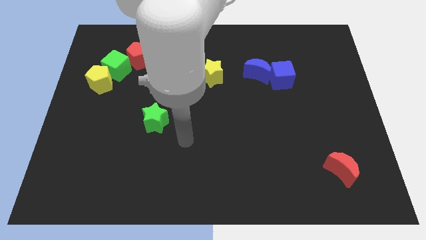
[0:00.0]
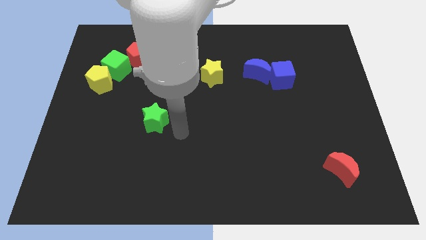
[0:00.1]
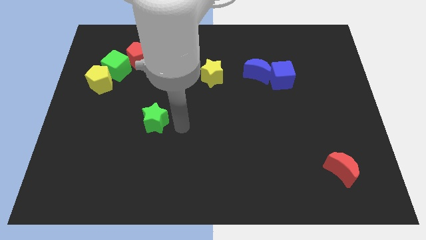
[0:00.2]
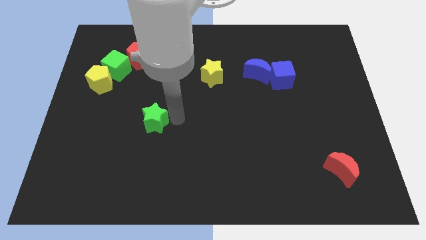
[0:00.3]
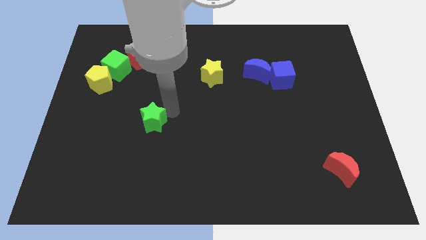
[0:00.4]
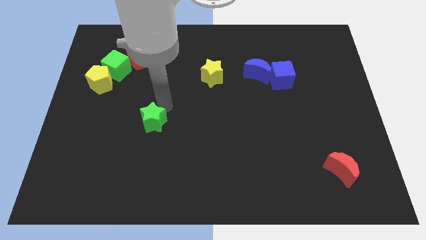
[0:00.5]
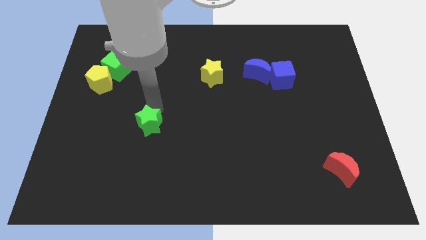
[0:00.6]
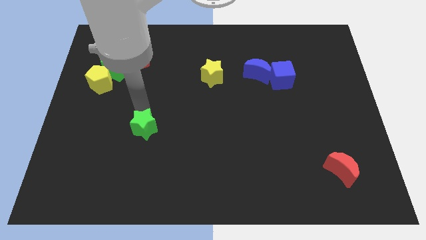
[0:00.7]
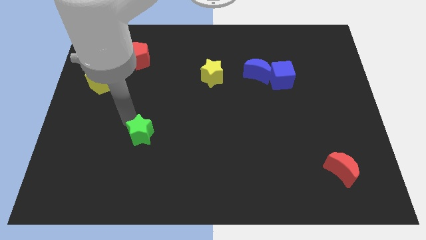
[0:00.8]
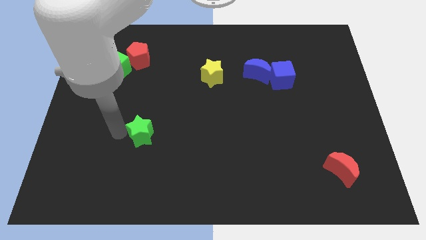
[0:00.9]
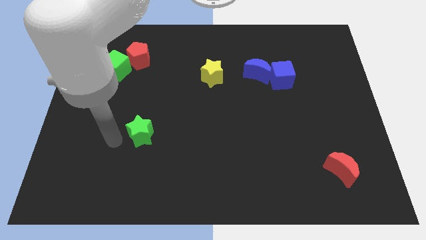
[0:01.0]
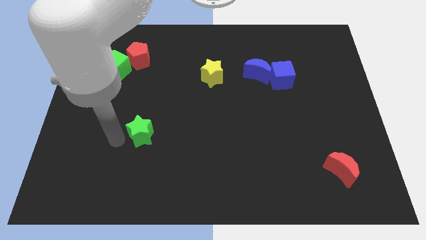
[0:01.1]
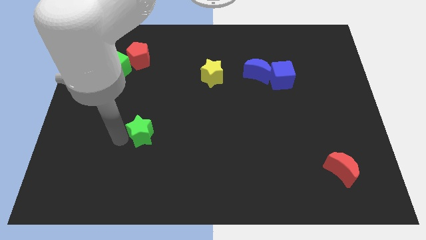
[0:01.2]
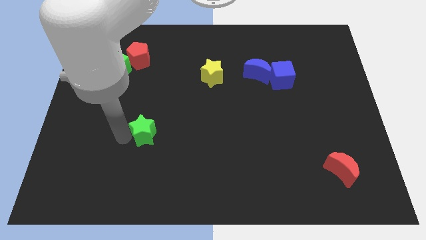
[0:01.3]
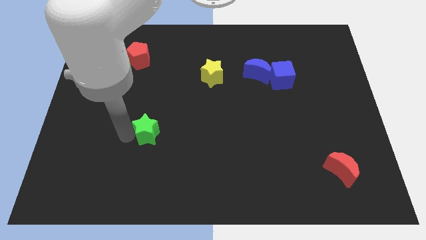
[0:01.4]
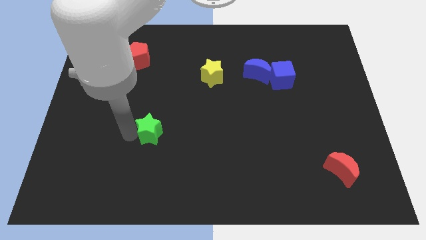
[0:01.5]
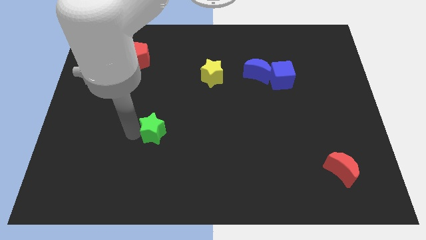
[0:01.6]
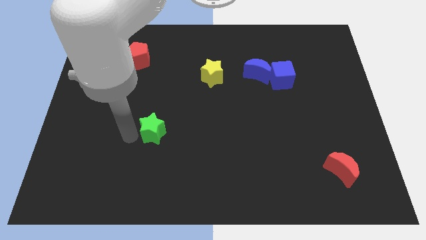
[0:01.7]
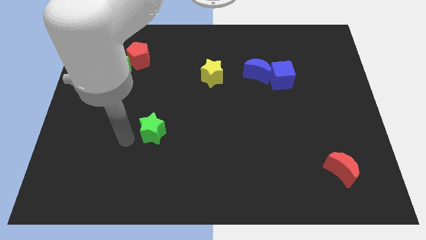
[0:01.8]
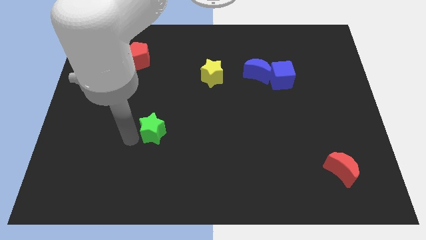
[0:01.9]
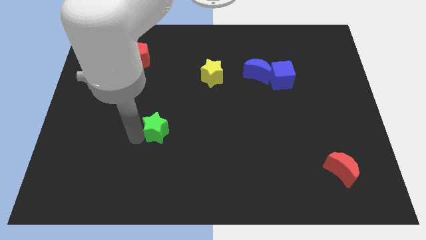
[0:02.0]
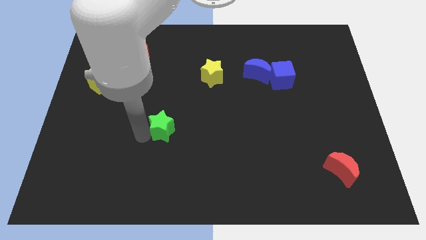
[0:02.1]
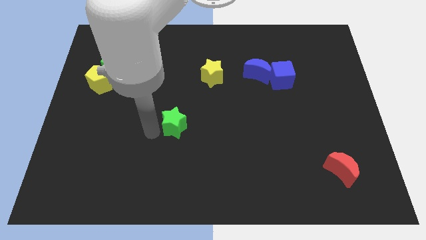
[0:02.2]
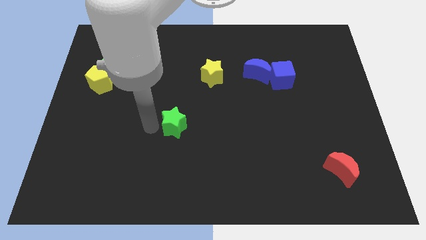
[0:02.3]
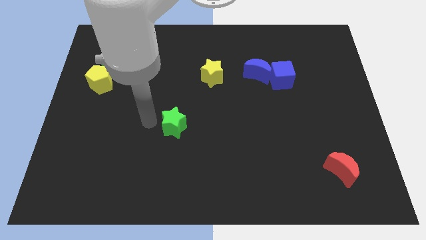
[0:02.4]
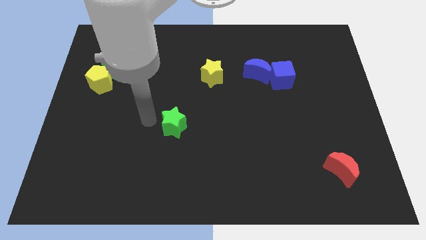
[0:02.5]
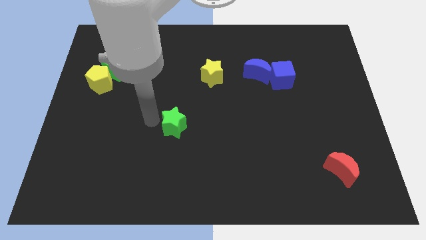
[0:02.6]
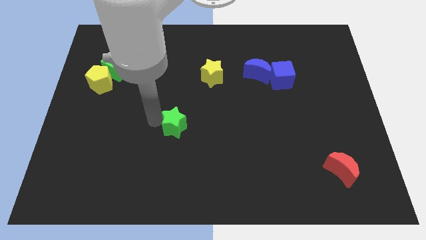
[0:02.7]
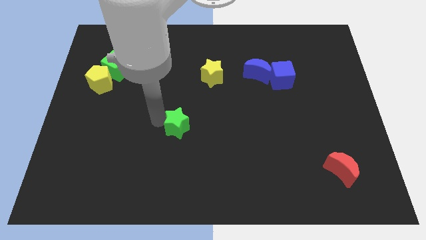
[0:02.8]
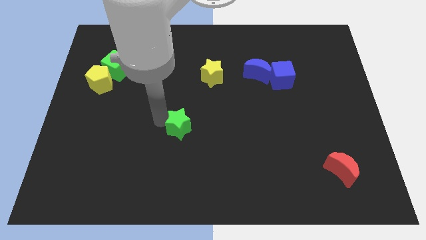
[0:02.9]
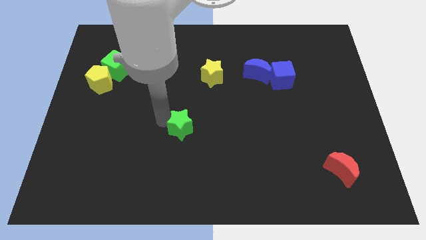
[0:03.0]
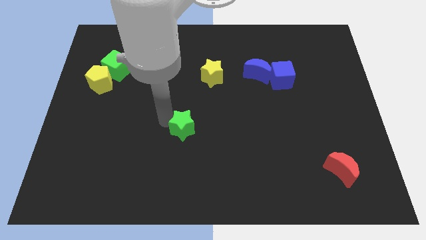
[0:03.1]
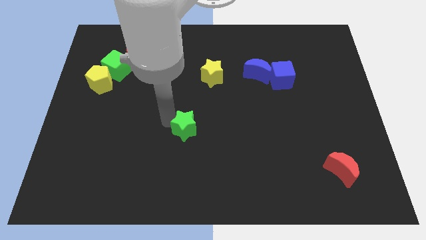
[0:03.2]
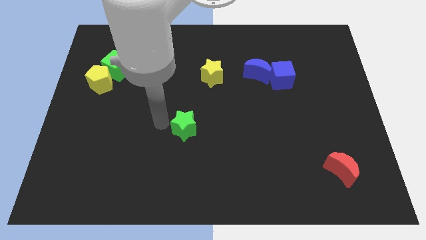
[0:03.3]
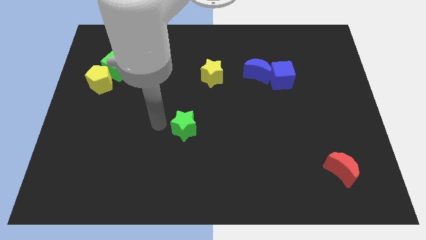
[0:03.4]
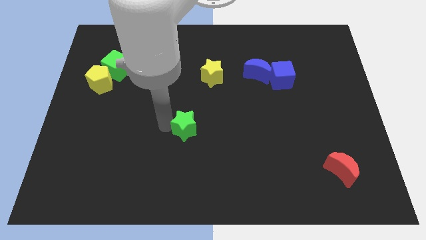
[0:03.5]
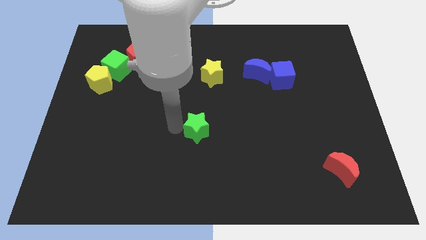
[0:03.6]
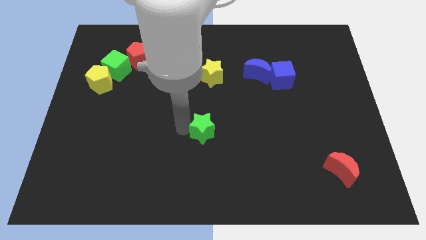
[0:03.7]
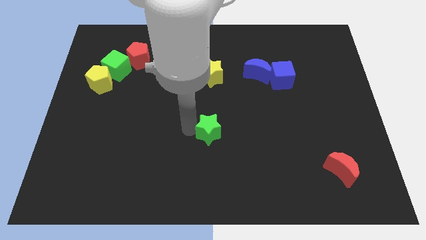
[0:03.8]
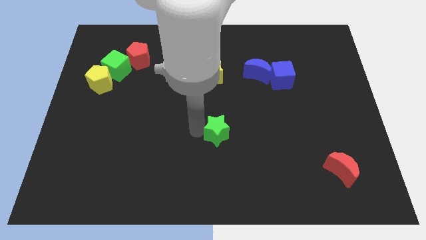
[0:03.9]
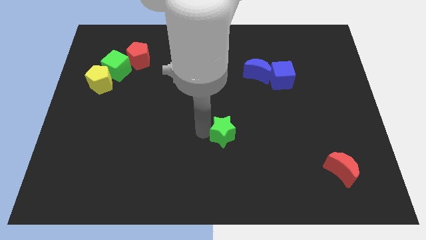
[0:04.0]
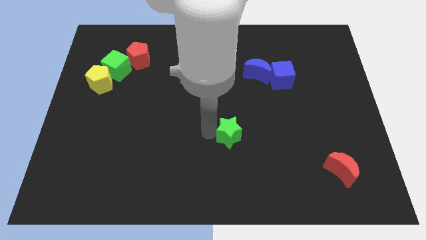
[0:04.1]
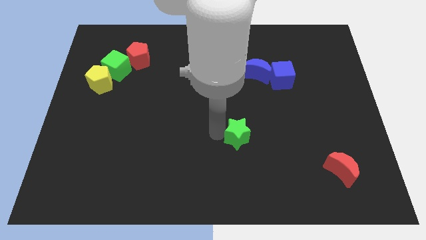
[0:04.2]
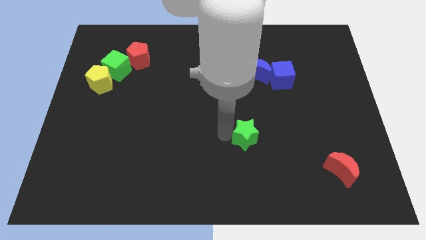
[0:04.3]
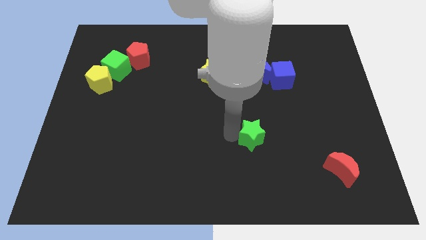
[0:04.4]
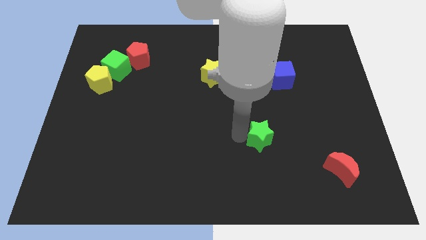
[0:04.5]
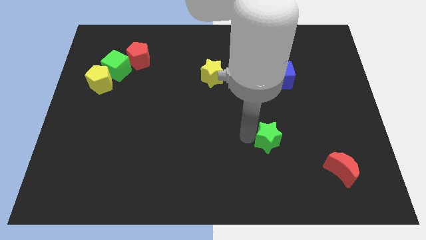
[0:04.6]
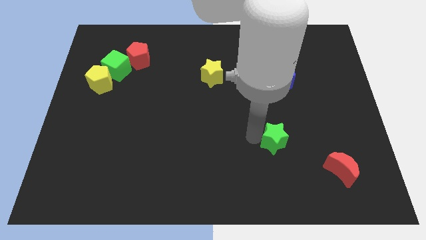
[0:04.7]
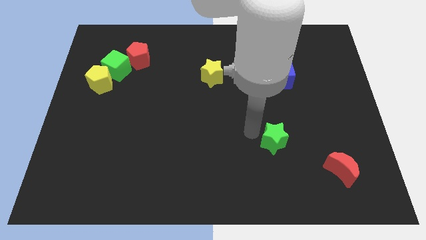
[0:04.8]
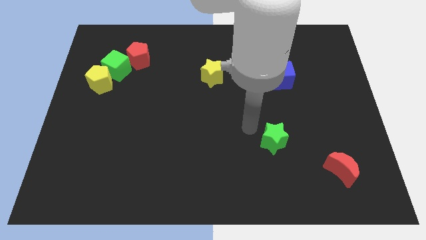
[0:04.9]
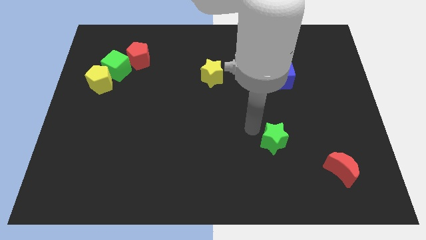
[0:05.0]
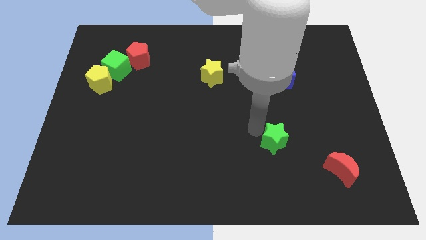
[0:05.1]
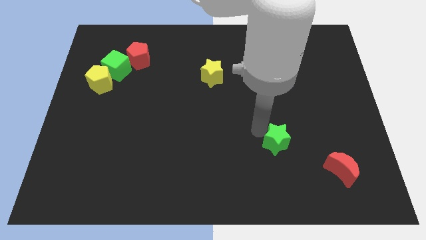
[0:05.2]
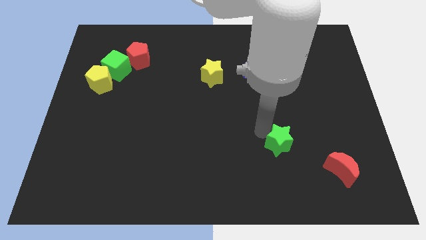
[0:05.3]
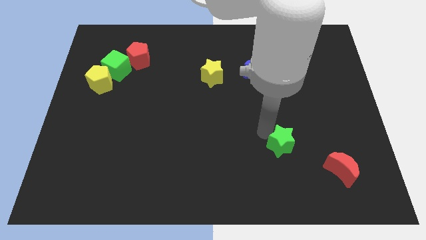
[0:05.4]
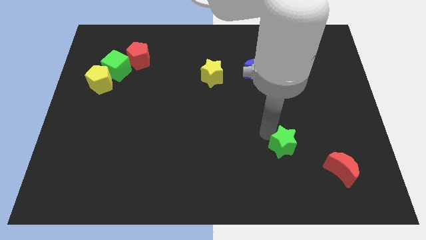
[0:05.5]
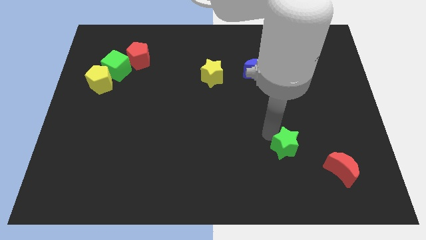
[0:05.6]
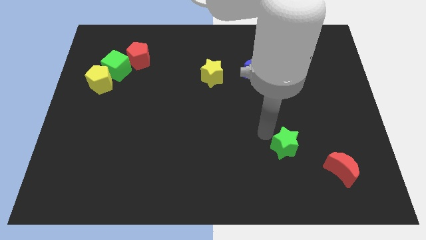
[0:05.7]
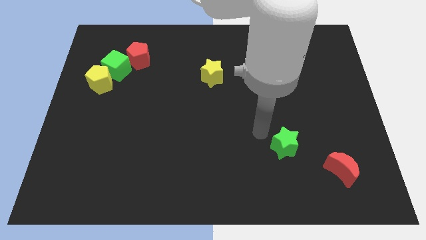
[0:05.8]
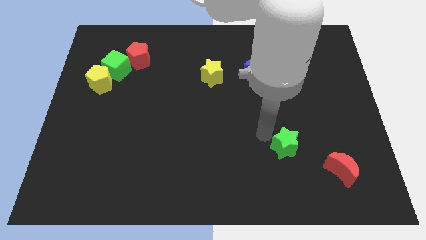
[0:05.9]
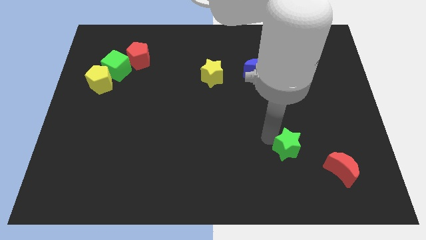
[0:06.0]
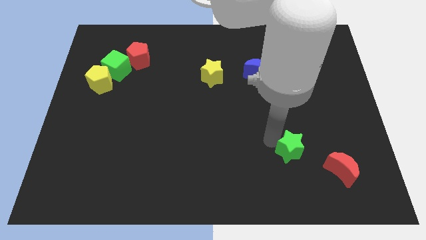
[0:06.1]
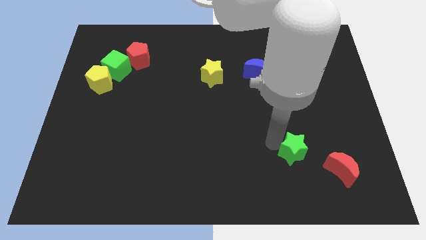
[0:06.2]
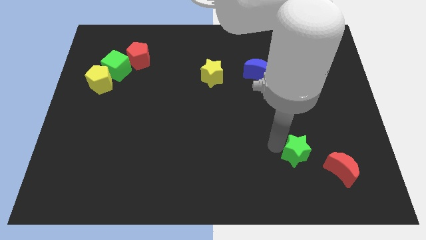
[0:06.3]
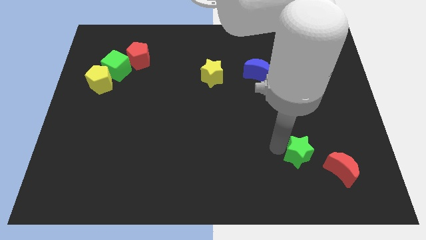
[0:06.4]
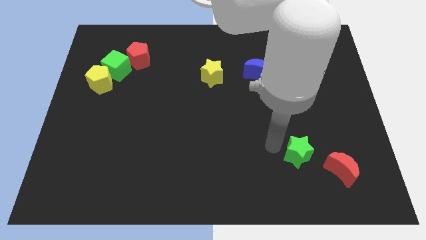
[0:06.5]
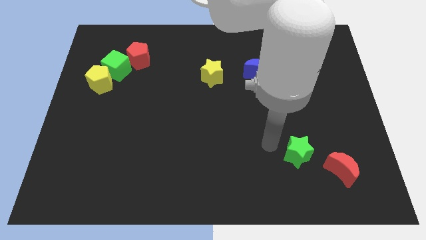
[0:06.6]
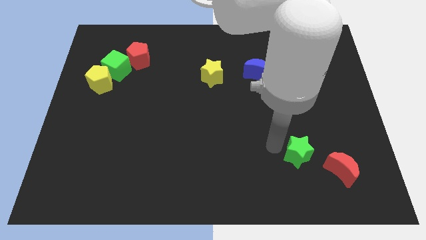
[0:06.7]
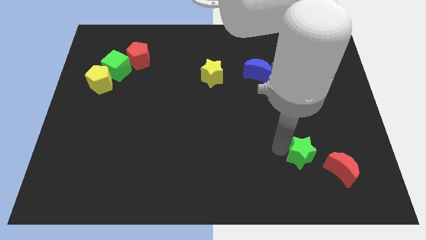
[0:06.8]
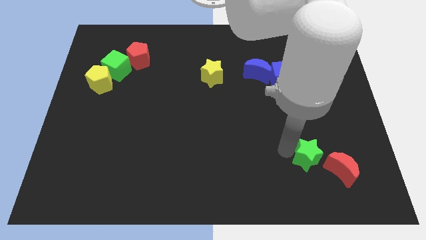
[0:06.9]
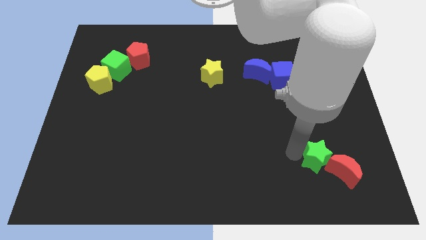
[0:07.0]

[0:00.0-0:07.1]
put the green star close to the red moon

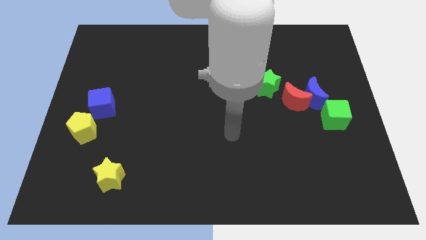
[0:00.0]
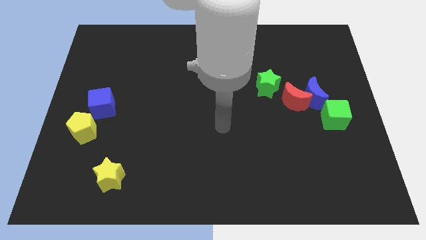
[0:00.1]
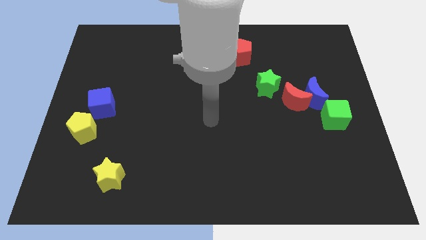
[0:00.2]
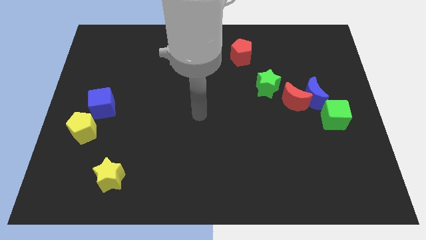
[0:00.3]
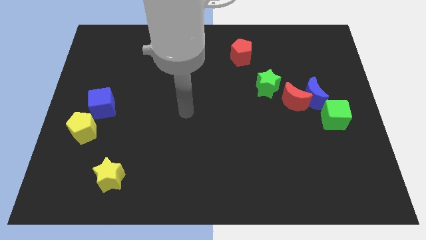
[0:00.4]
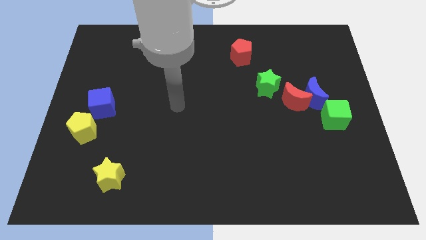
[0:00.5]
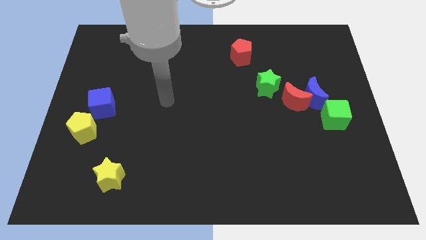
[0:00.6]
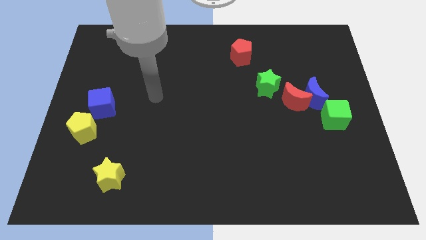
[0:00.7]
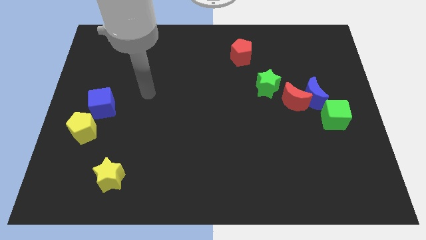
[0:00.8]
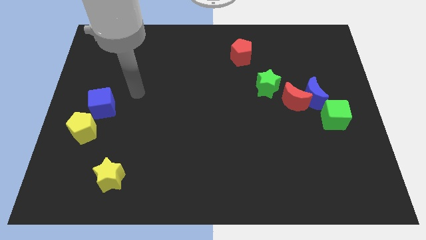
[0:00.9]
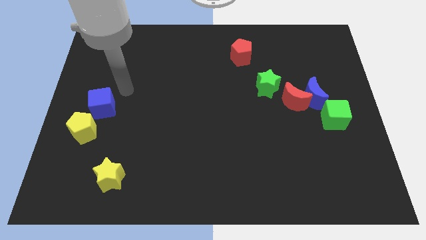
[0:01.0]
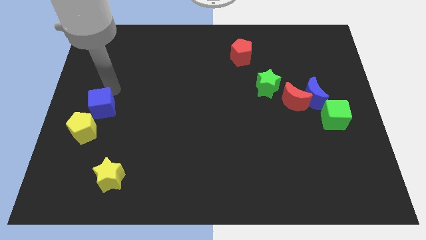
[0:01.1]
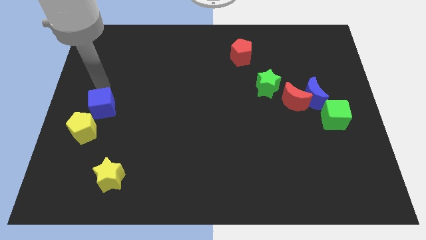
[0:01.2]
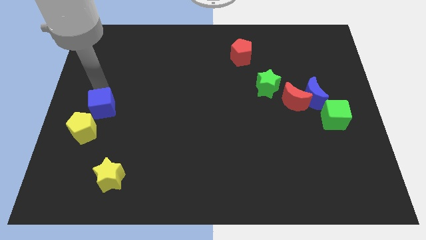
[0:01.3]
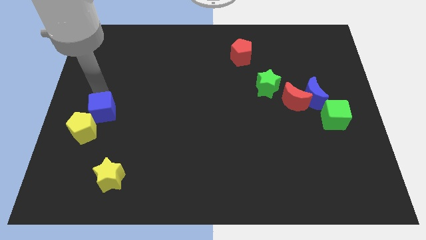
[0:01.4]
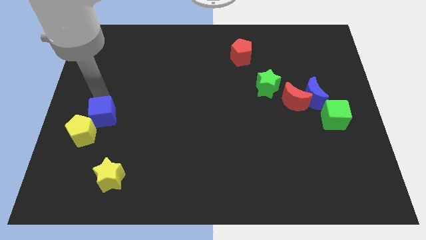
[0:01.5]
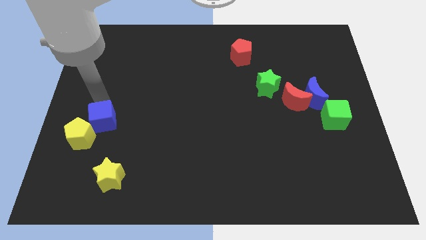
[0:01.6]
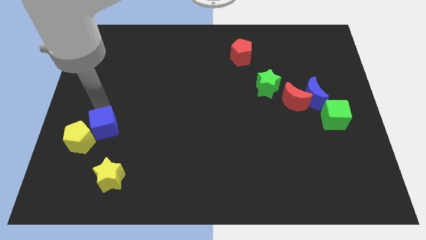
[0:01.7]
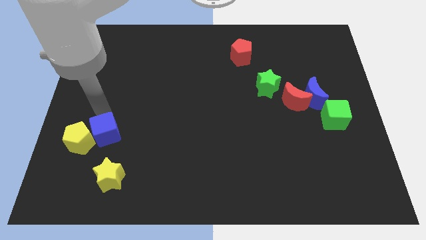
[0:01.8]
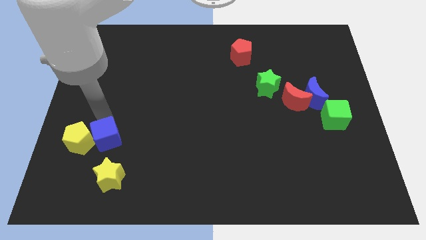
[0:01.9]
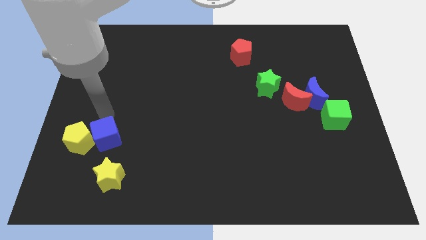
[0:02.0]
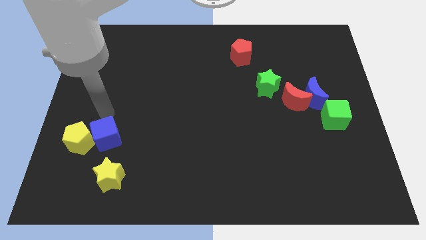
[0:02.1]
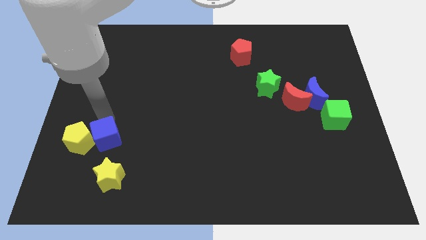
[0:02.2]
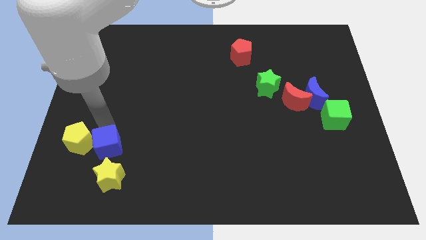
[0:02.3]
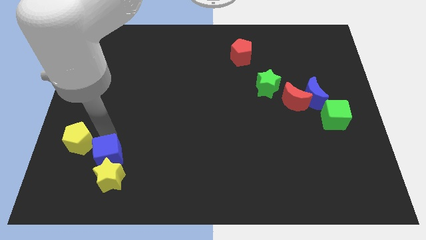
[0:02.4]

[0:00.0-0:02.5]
push the blue cube towards the yellow star
